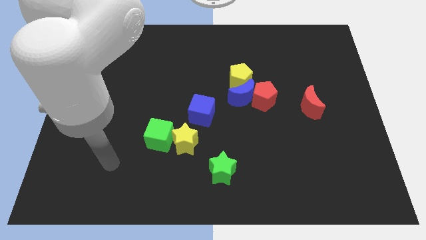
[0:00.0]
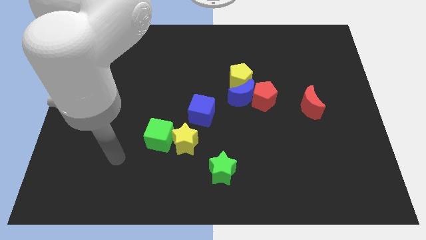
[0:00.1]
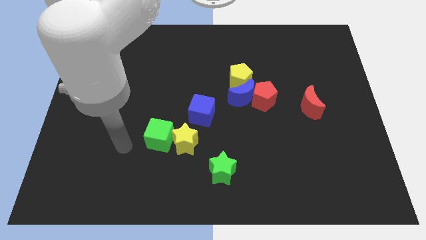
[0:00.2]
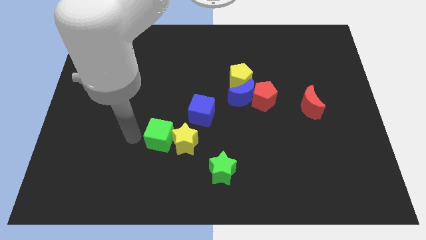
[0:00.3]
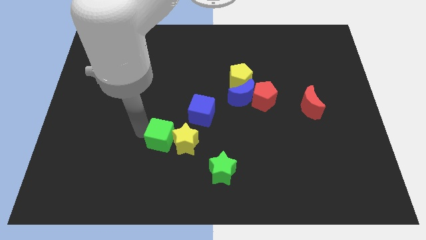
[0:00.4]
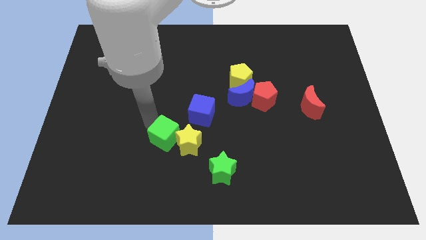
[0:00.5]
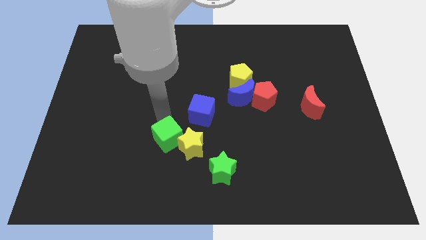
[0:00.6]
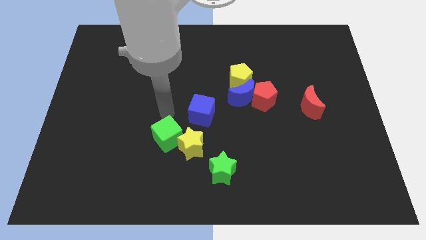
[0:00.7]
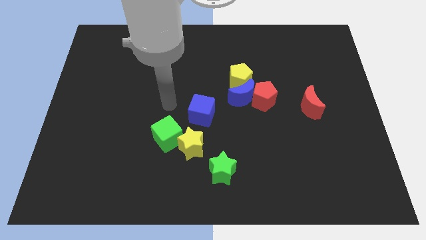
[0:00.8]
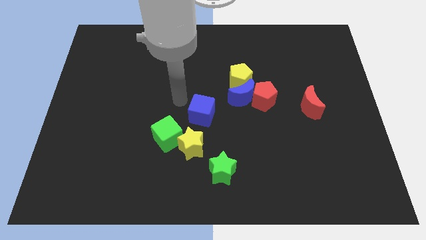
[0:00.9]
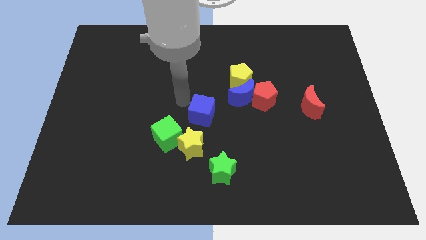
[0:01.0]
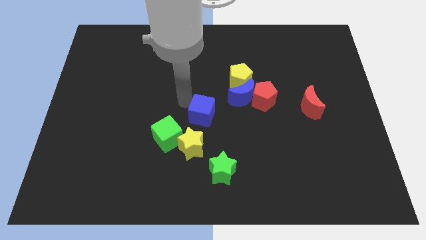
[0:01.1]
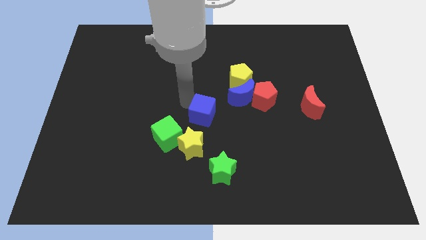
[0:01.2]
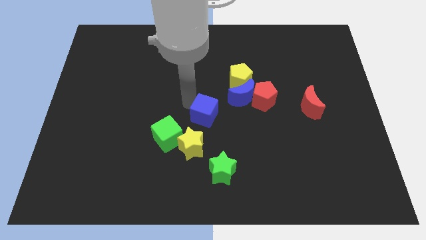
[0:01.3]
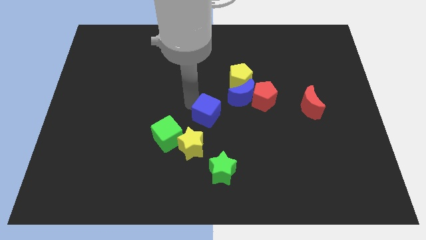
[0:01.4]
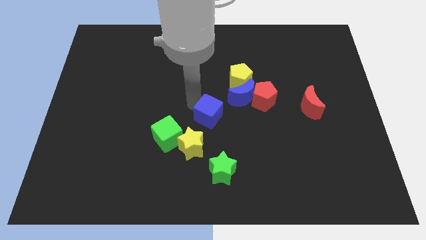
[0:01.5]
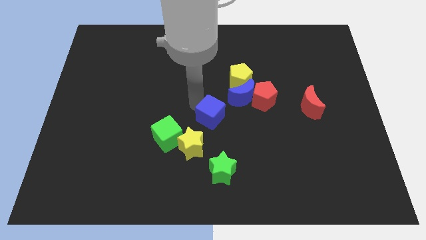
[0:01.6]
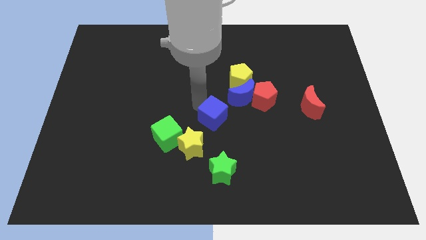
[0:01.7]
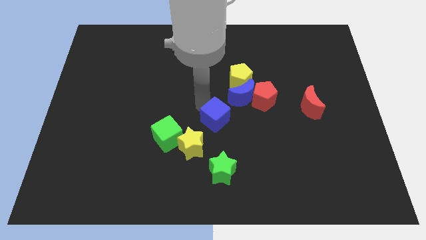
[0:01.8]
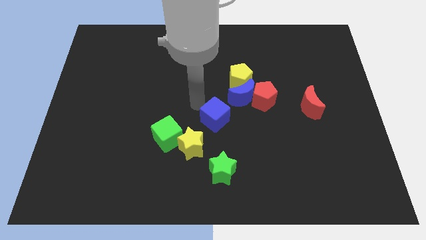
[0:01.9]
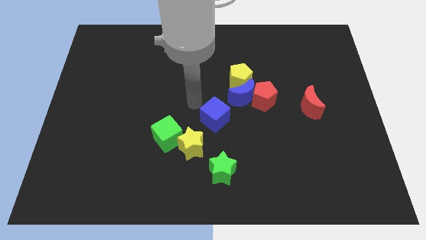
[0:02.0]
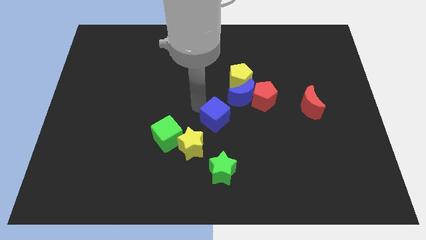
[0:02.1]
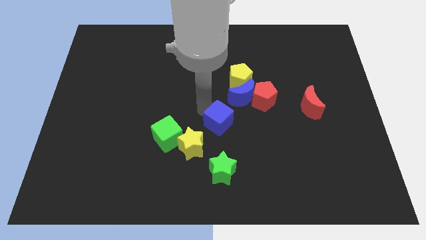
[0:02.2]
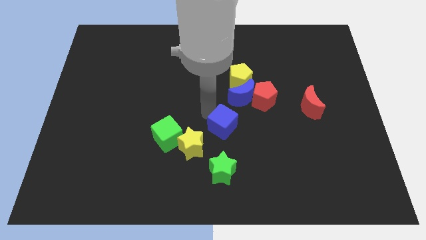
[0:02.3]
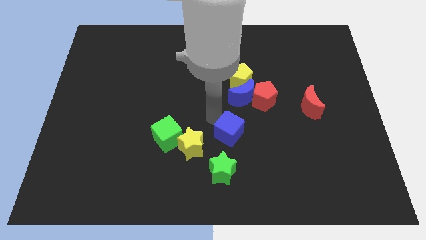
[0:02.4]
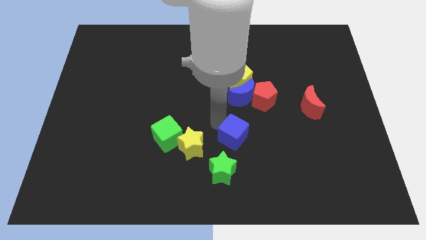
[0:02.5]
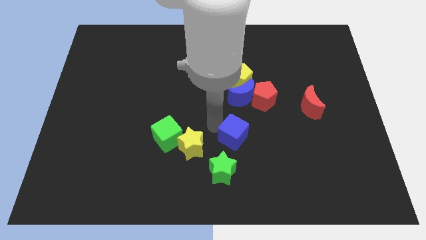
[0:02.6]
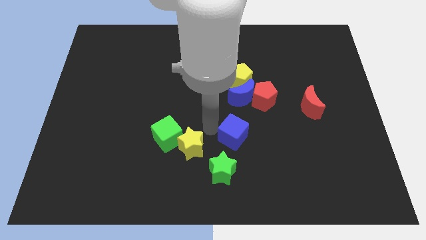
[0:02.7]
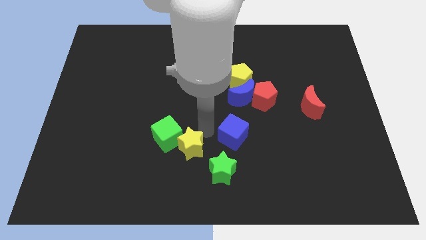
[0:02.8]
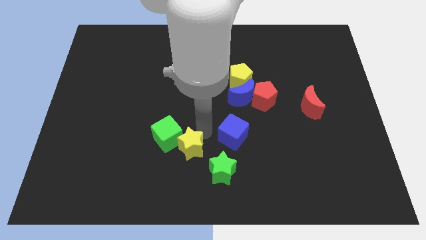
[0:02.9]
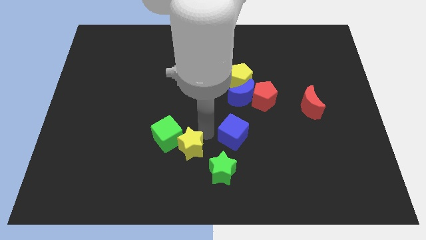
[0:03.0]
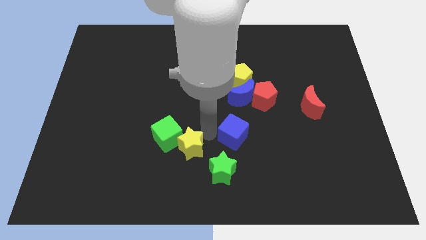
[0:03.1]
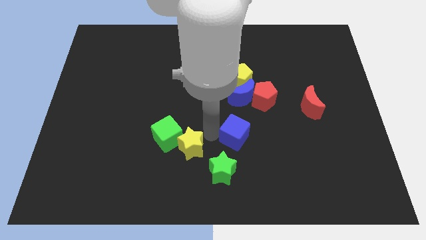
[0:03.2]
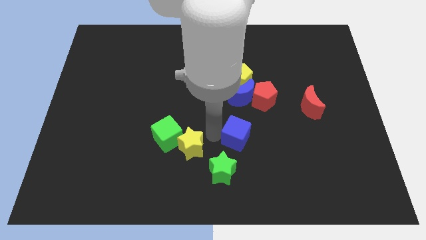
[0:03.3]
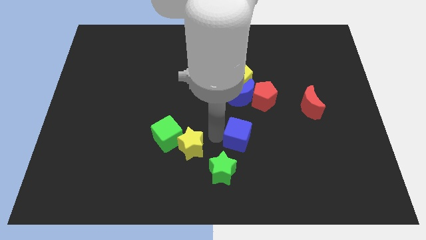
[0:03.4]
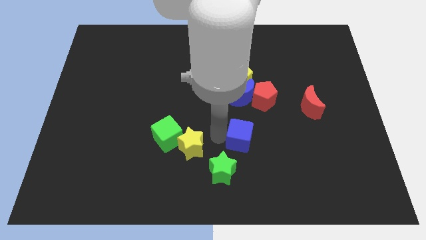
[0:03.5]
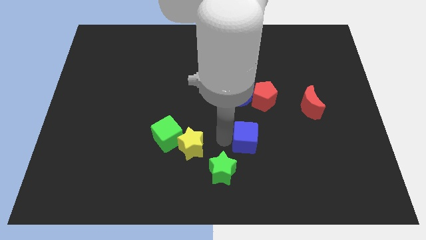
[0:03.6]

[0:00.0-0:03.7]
slightly slide the blue cube right

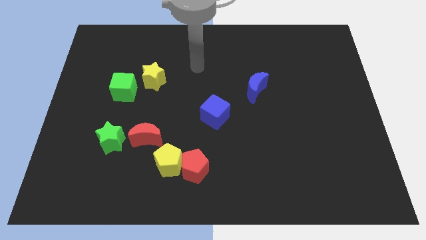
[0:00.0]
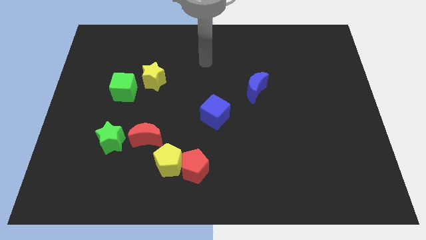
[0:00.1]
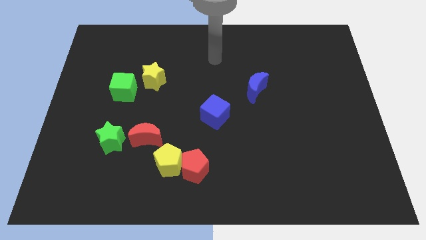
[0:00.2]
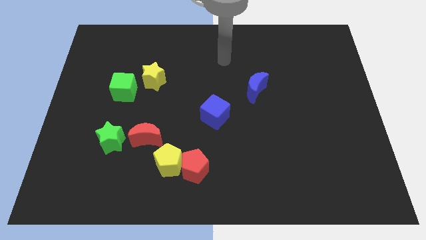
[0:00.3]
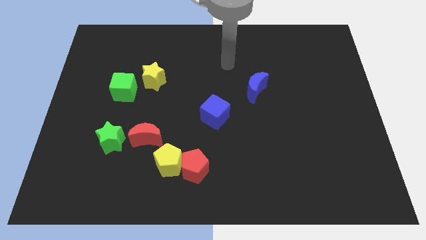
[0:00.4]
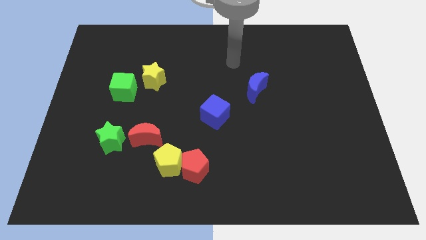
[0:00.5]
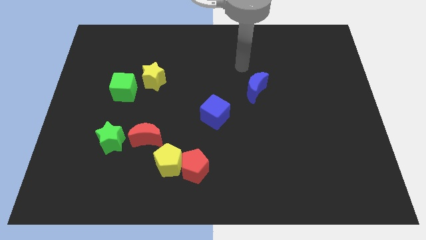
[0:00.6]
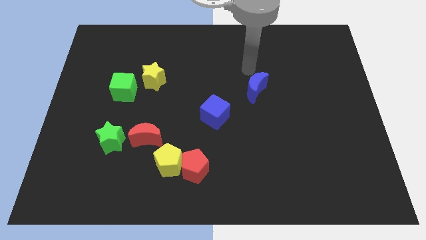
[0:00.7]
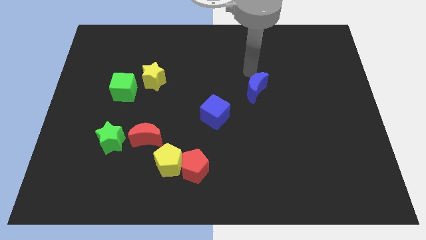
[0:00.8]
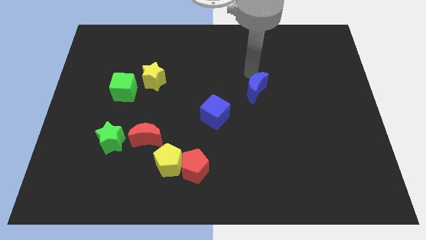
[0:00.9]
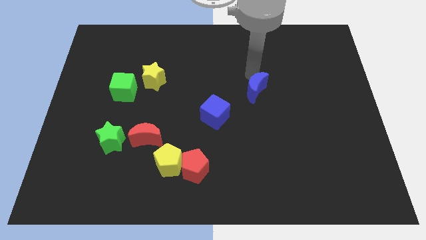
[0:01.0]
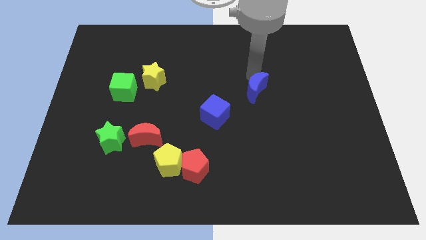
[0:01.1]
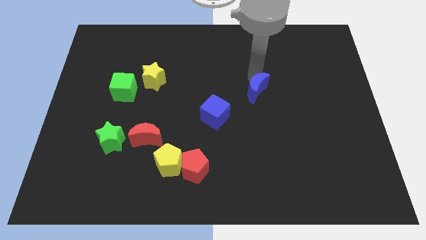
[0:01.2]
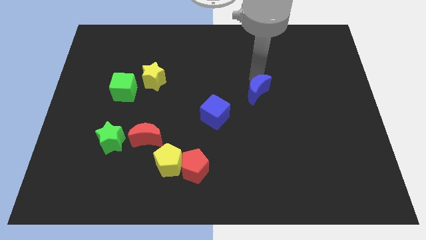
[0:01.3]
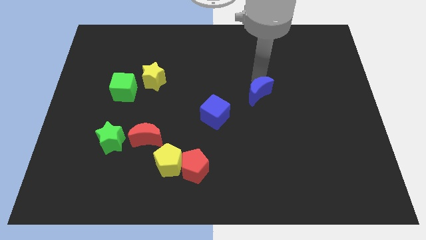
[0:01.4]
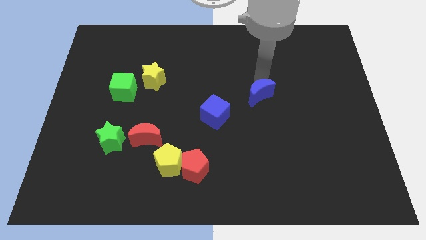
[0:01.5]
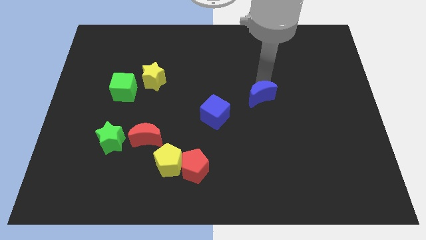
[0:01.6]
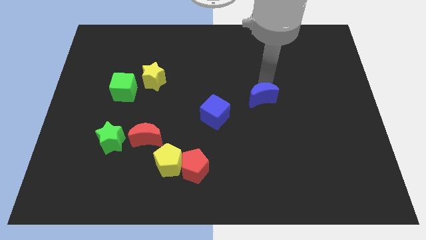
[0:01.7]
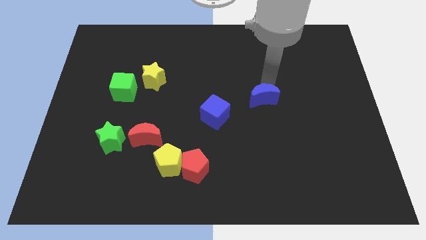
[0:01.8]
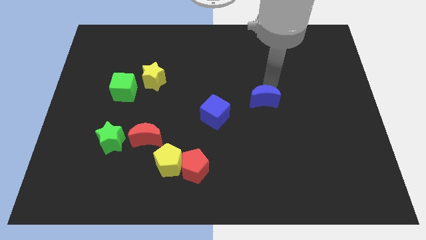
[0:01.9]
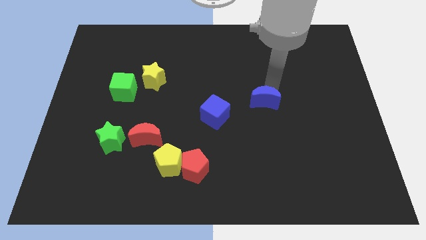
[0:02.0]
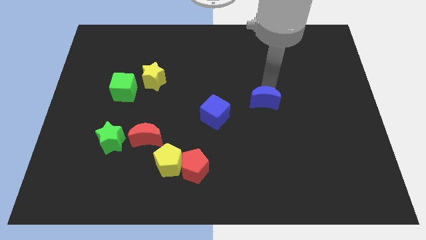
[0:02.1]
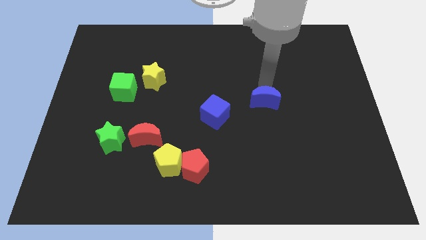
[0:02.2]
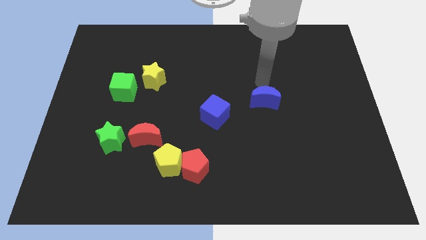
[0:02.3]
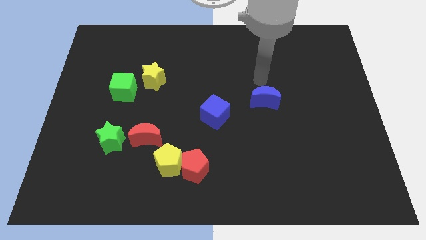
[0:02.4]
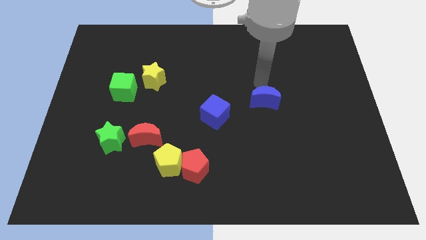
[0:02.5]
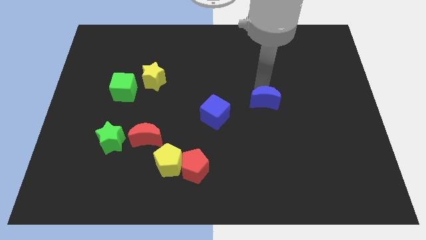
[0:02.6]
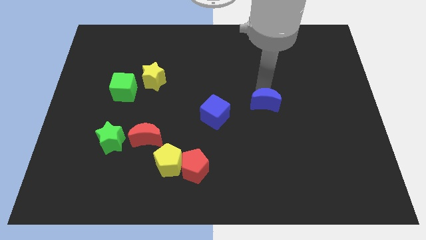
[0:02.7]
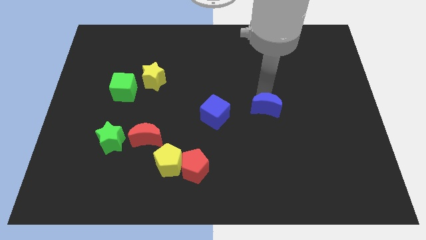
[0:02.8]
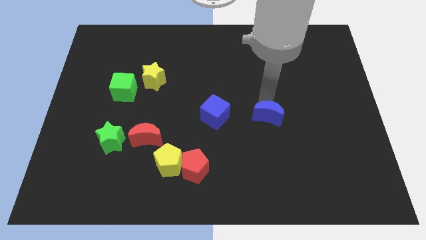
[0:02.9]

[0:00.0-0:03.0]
slightly slide the blue moon downwards

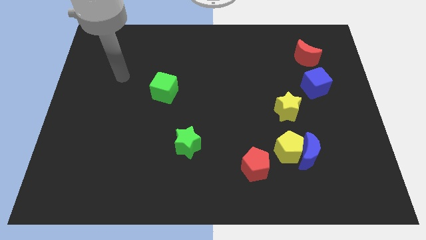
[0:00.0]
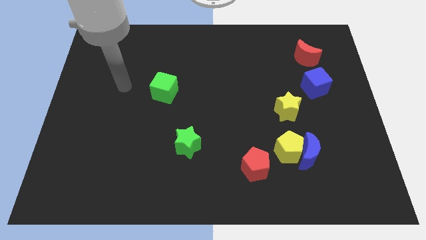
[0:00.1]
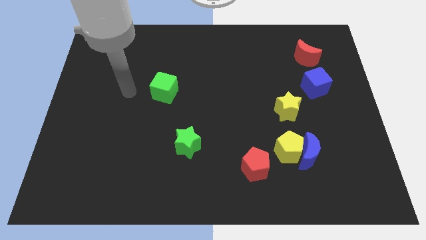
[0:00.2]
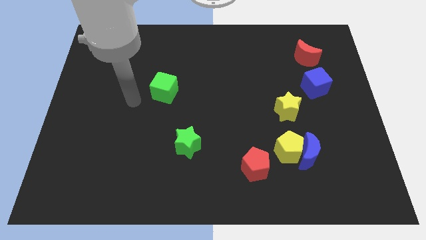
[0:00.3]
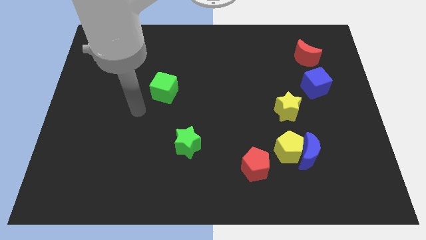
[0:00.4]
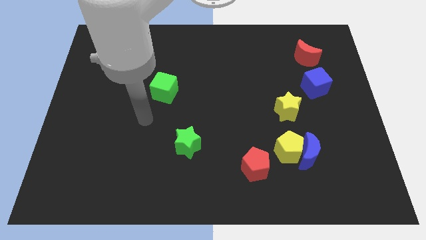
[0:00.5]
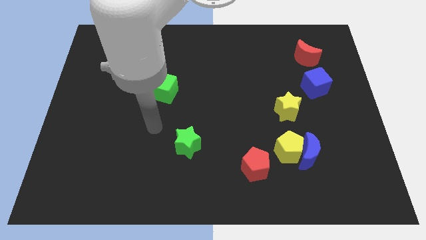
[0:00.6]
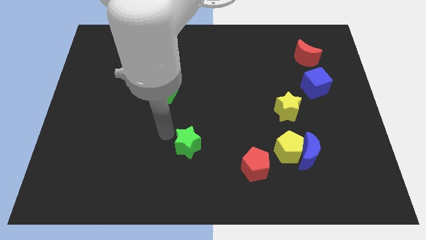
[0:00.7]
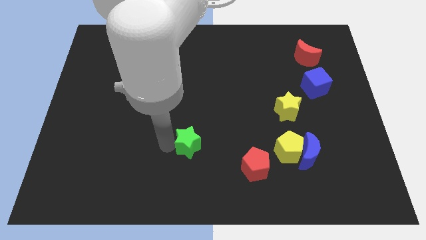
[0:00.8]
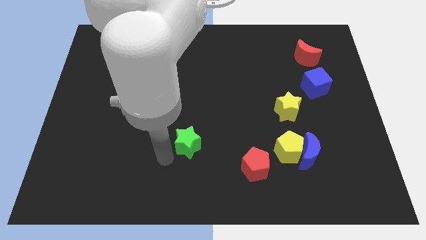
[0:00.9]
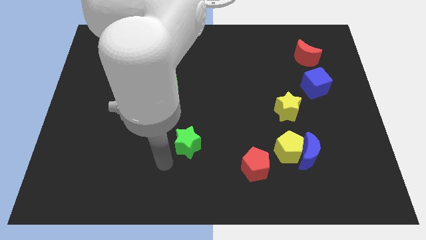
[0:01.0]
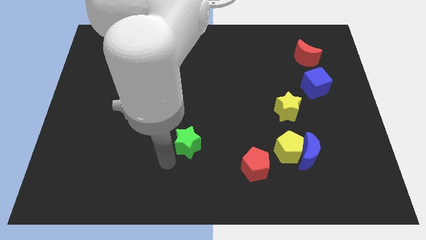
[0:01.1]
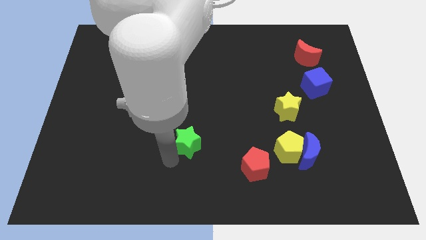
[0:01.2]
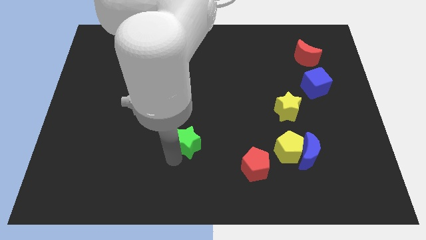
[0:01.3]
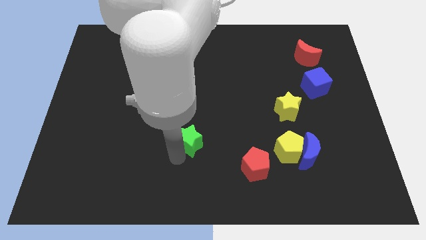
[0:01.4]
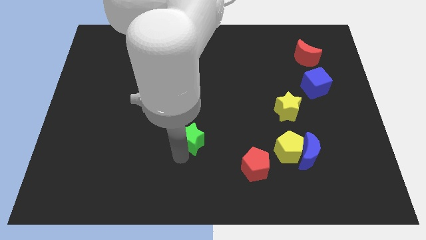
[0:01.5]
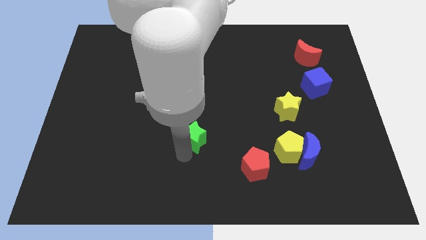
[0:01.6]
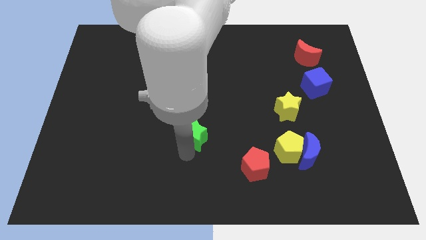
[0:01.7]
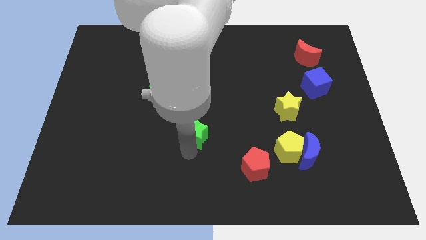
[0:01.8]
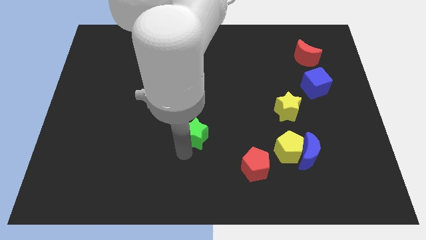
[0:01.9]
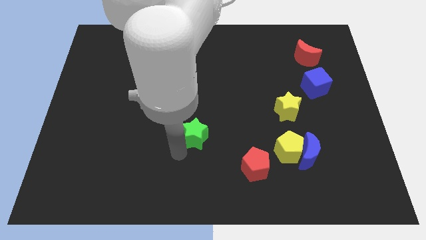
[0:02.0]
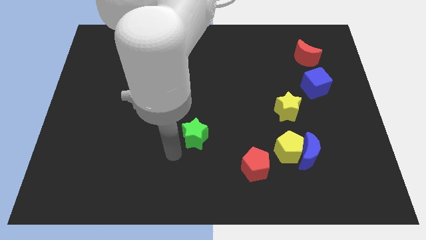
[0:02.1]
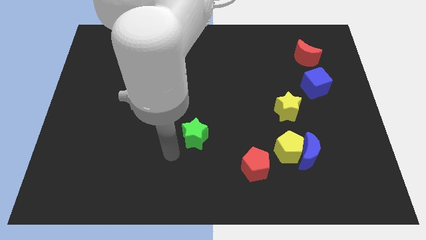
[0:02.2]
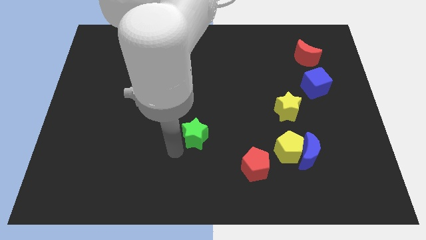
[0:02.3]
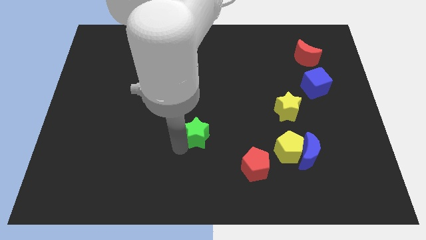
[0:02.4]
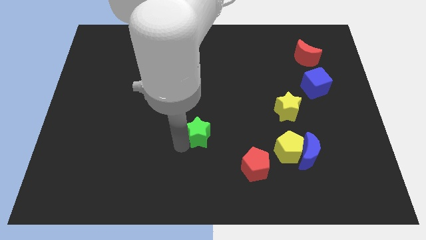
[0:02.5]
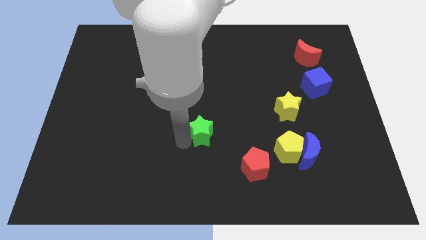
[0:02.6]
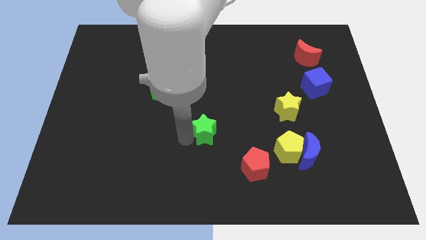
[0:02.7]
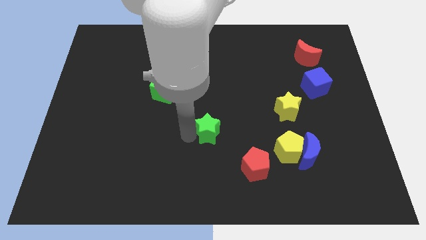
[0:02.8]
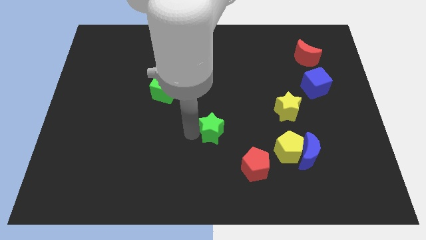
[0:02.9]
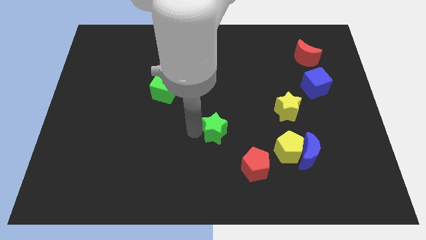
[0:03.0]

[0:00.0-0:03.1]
slightly move the green star diagonally up and to the right
